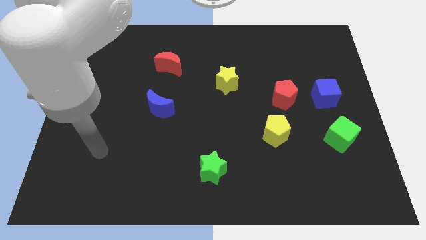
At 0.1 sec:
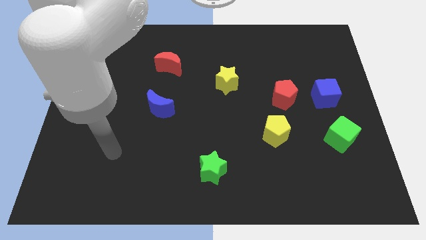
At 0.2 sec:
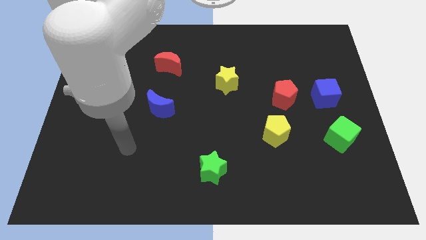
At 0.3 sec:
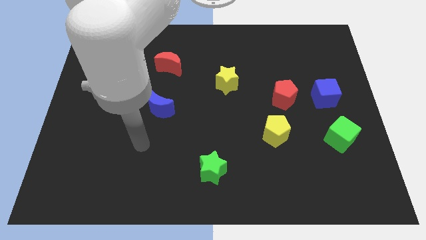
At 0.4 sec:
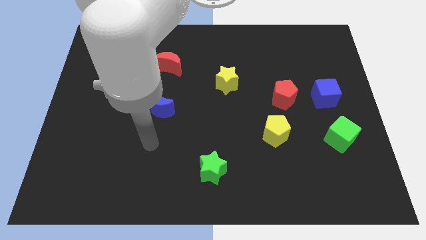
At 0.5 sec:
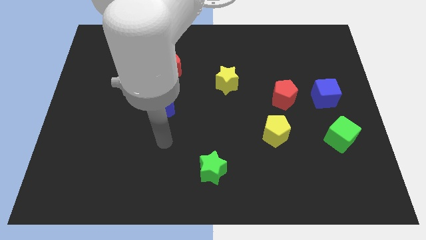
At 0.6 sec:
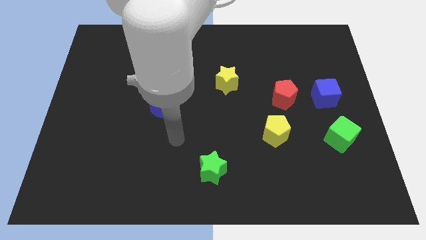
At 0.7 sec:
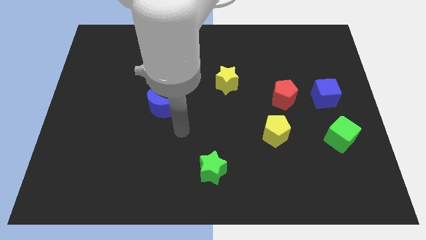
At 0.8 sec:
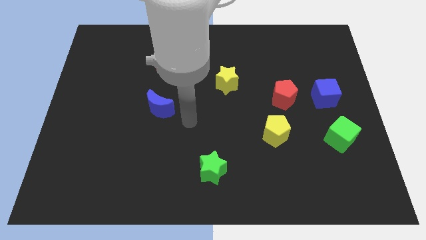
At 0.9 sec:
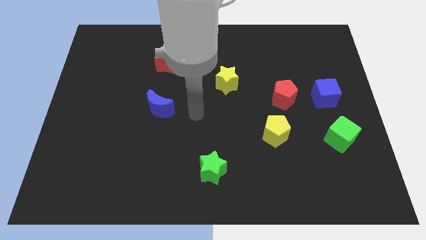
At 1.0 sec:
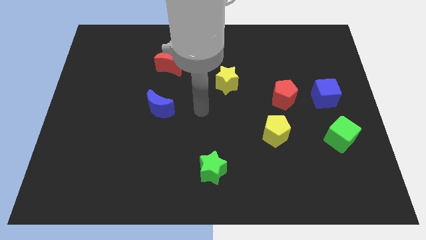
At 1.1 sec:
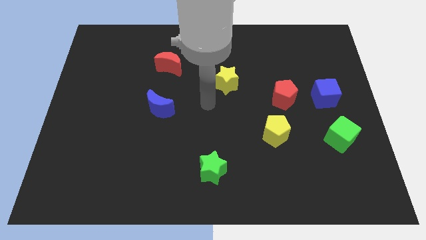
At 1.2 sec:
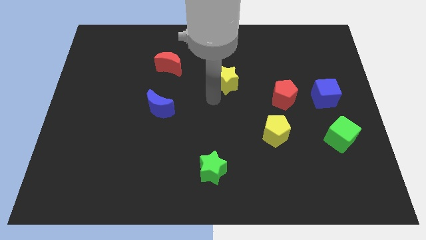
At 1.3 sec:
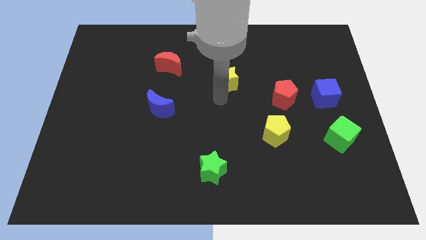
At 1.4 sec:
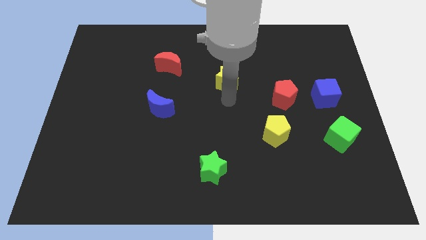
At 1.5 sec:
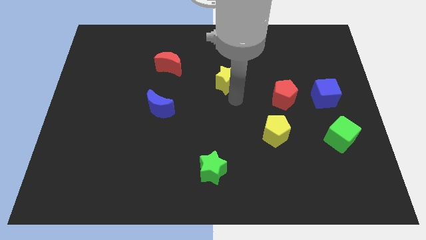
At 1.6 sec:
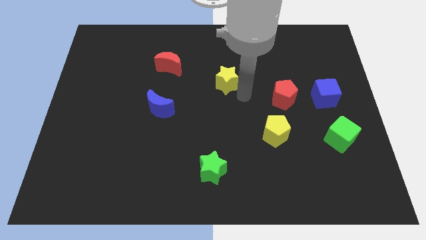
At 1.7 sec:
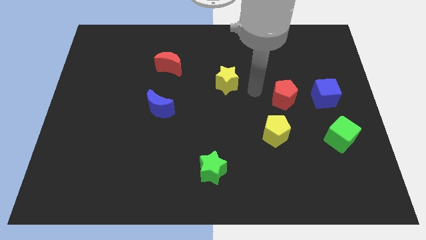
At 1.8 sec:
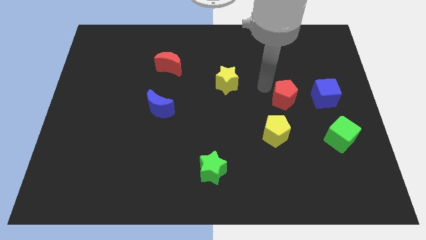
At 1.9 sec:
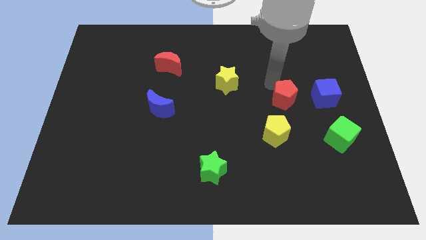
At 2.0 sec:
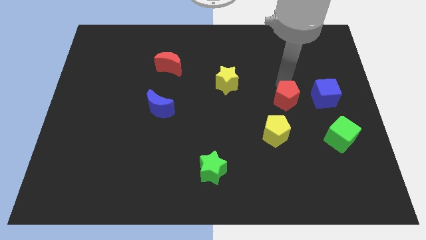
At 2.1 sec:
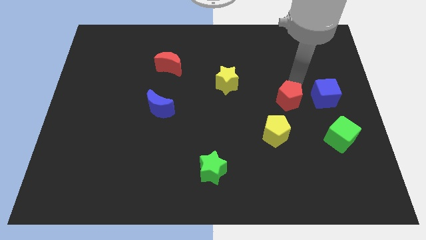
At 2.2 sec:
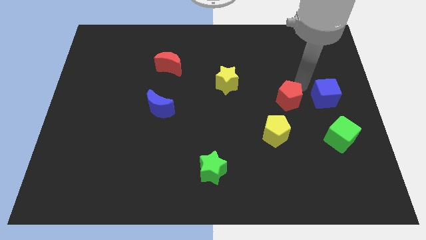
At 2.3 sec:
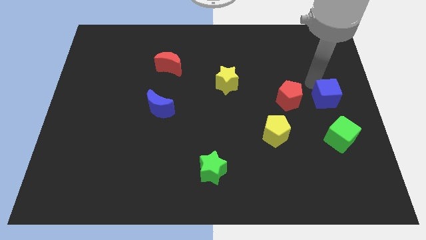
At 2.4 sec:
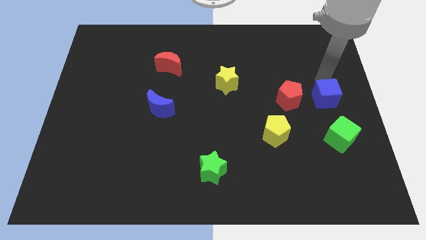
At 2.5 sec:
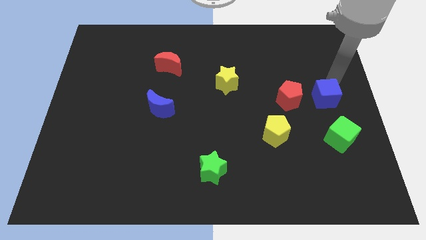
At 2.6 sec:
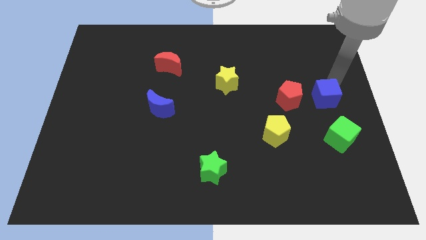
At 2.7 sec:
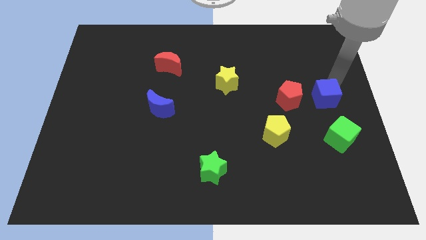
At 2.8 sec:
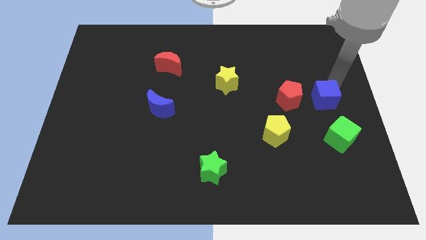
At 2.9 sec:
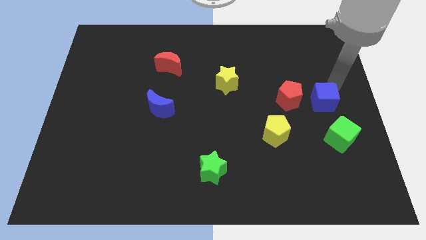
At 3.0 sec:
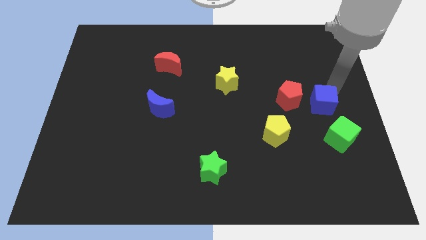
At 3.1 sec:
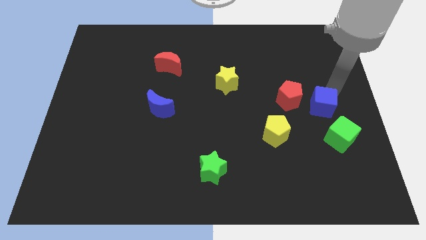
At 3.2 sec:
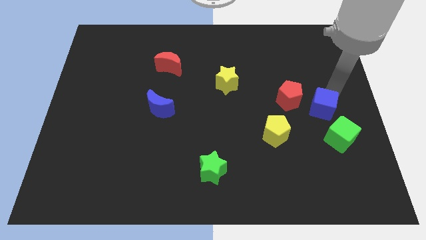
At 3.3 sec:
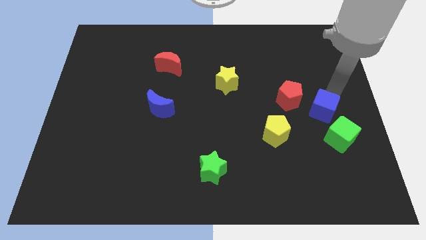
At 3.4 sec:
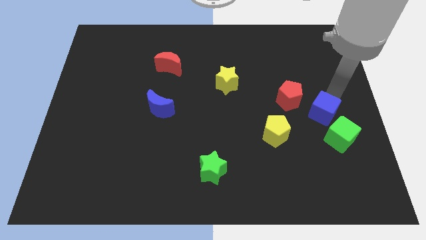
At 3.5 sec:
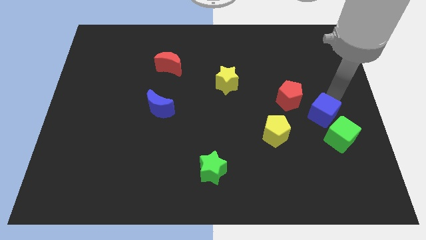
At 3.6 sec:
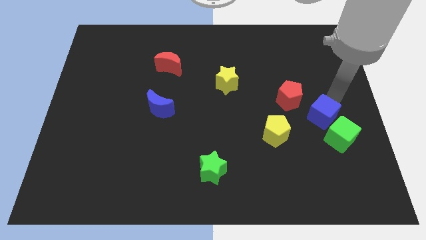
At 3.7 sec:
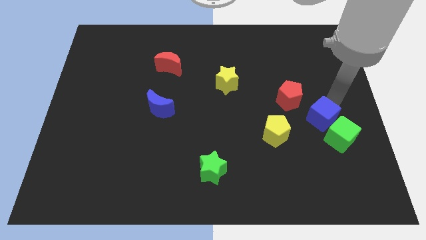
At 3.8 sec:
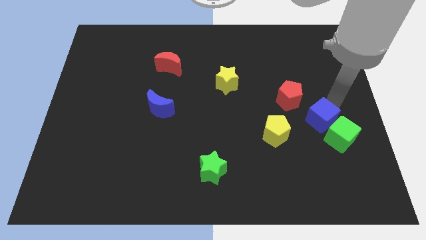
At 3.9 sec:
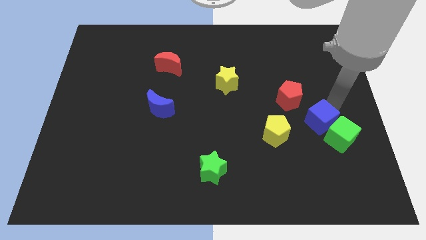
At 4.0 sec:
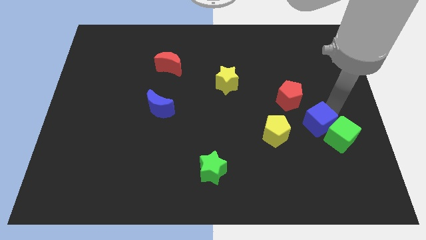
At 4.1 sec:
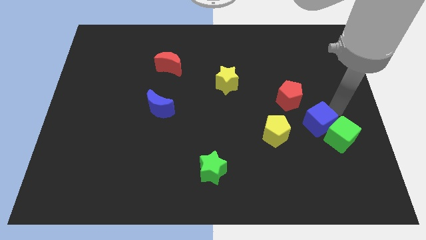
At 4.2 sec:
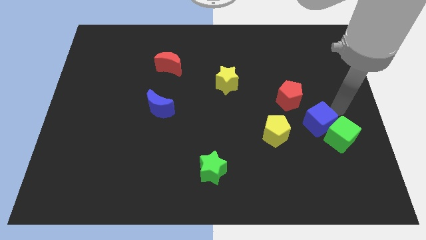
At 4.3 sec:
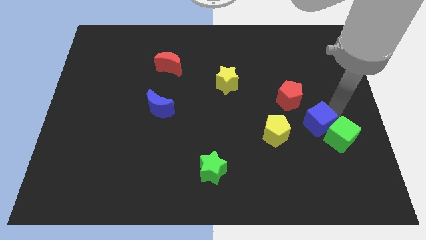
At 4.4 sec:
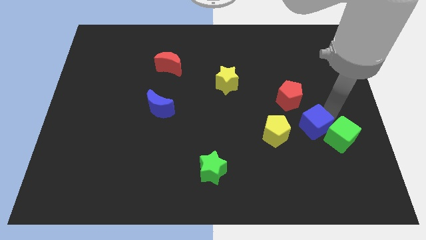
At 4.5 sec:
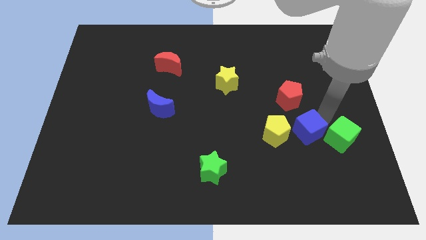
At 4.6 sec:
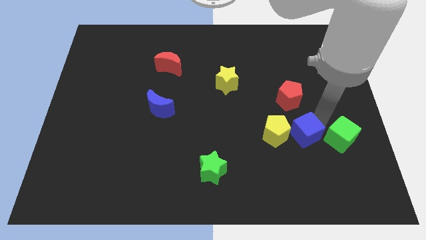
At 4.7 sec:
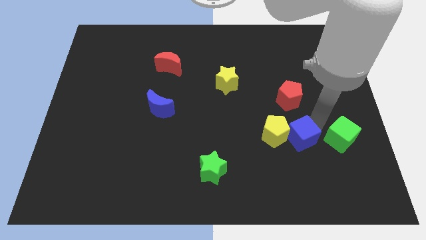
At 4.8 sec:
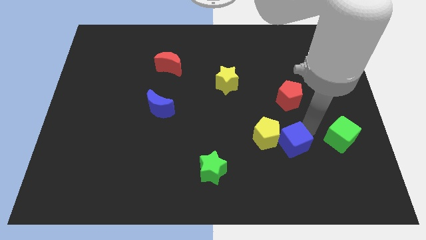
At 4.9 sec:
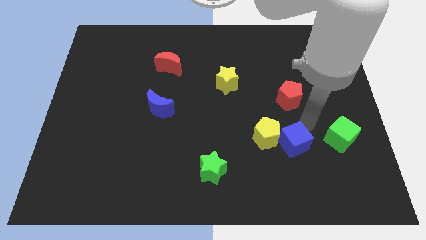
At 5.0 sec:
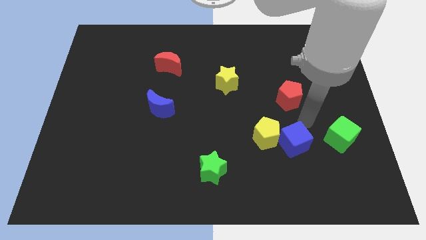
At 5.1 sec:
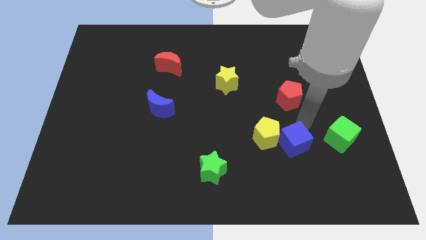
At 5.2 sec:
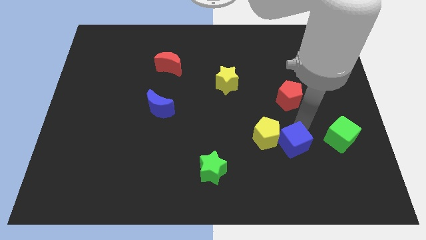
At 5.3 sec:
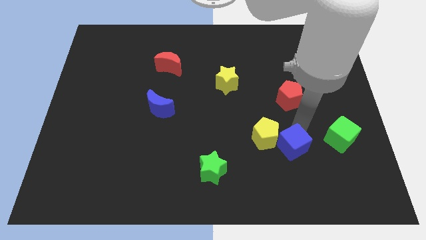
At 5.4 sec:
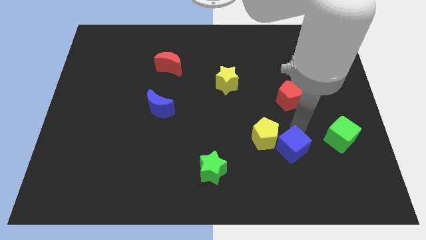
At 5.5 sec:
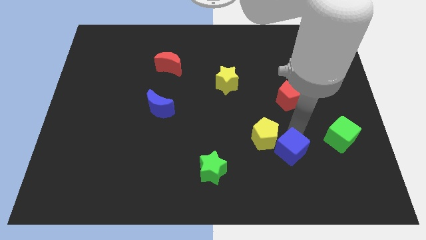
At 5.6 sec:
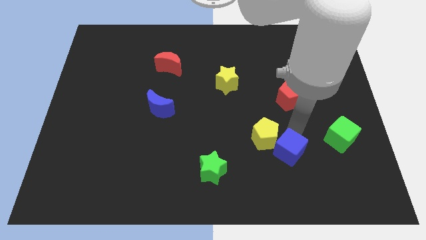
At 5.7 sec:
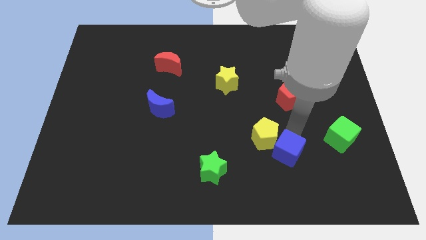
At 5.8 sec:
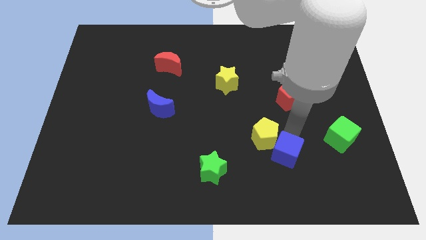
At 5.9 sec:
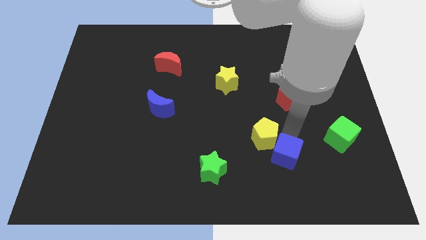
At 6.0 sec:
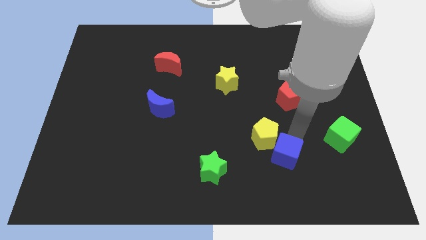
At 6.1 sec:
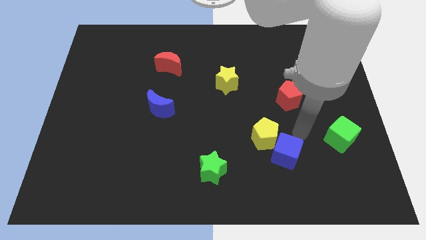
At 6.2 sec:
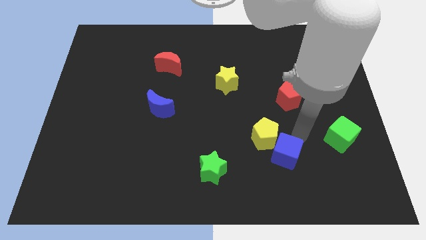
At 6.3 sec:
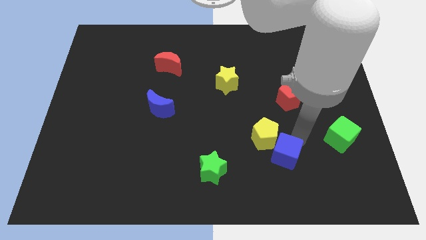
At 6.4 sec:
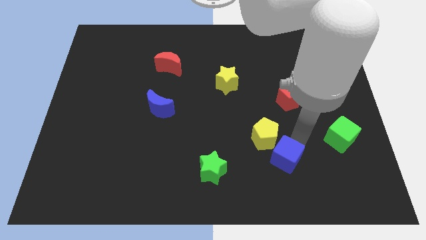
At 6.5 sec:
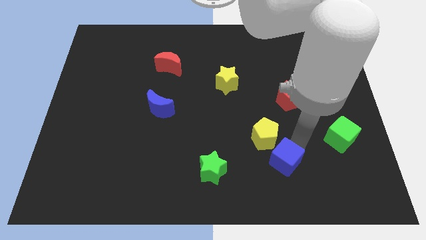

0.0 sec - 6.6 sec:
push the blue cube diagonally down and left

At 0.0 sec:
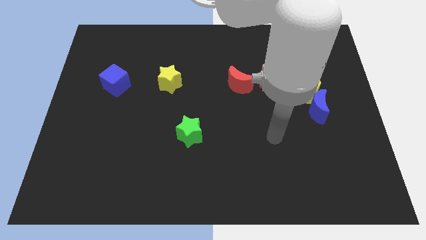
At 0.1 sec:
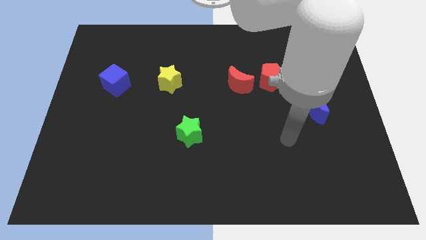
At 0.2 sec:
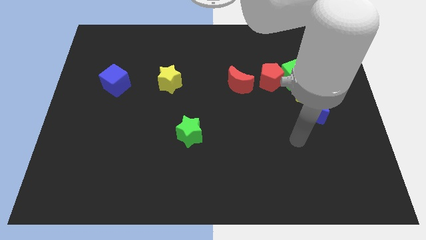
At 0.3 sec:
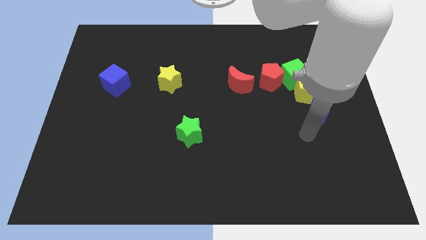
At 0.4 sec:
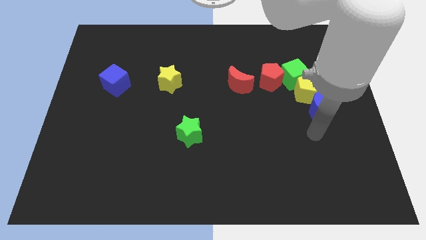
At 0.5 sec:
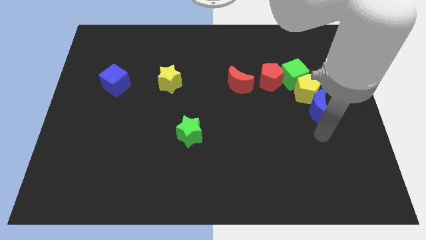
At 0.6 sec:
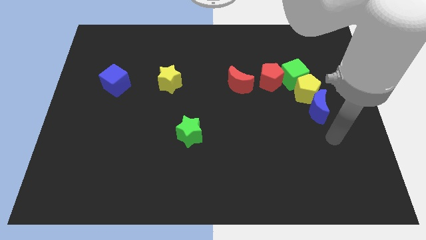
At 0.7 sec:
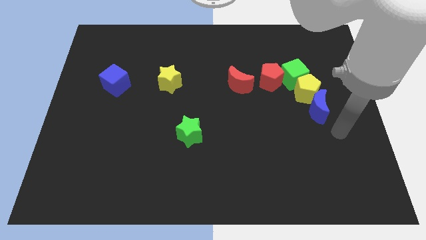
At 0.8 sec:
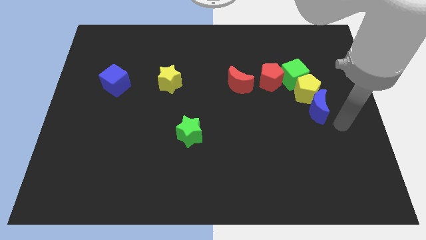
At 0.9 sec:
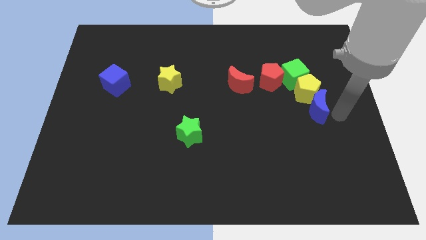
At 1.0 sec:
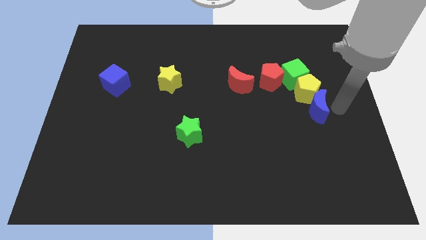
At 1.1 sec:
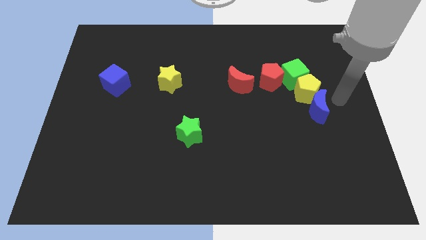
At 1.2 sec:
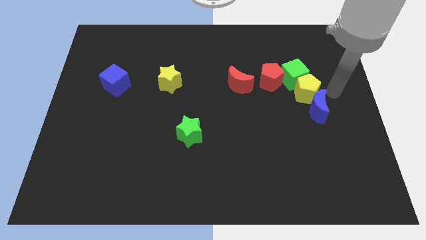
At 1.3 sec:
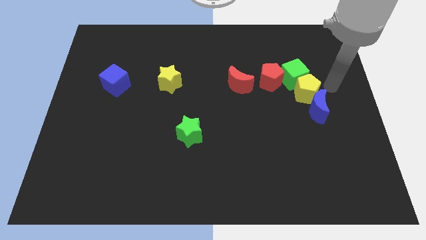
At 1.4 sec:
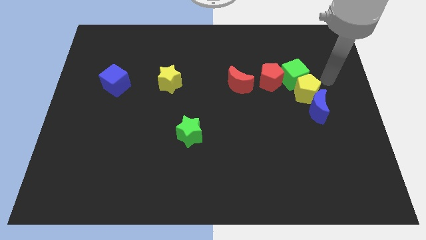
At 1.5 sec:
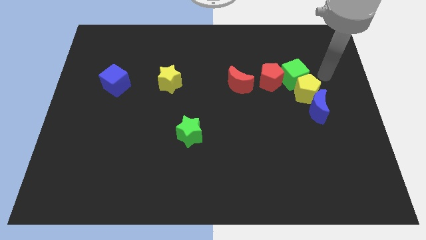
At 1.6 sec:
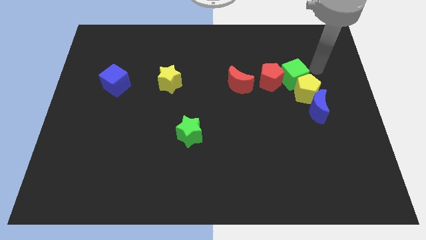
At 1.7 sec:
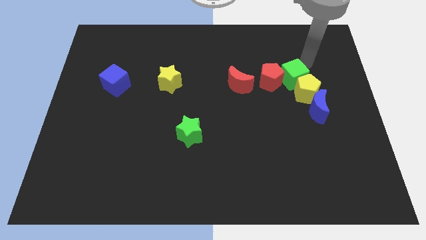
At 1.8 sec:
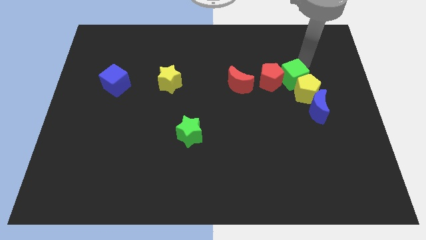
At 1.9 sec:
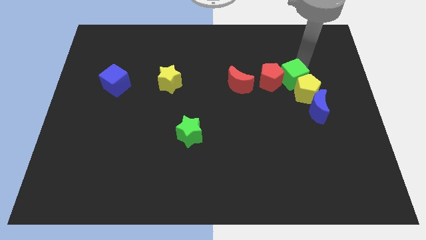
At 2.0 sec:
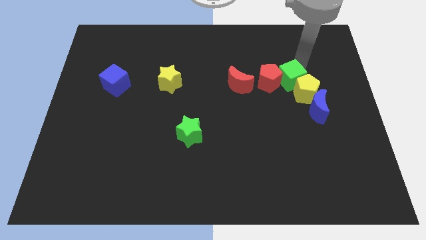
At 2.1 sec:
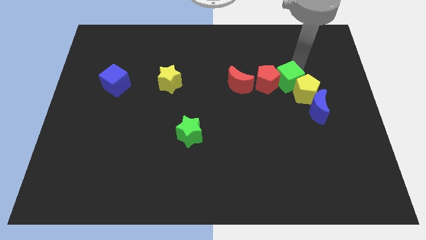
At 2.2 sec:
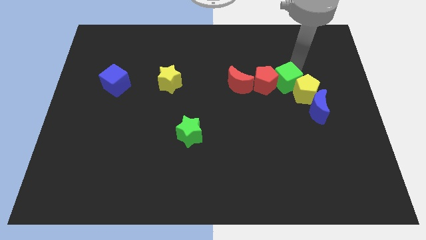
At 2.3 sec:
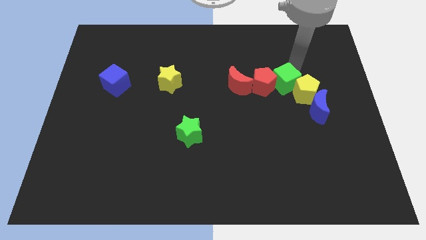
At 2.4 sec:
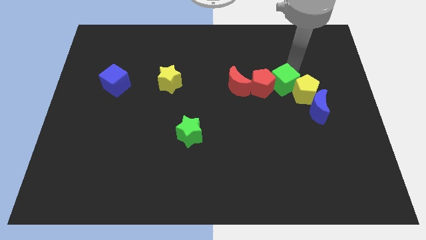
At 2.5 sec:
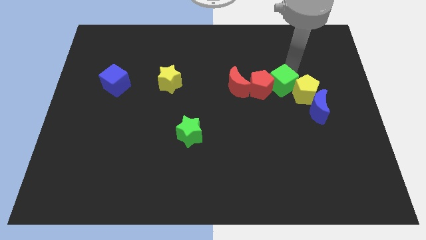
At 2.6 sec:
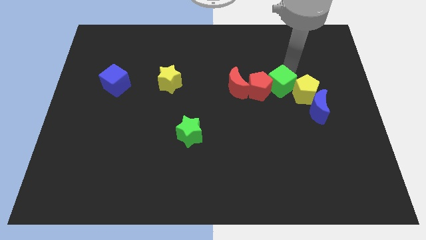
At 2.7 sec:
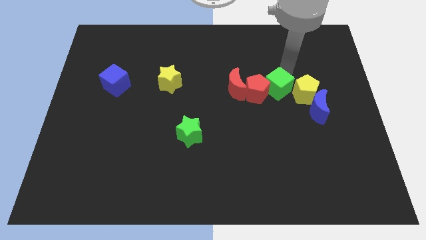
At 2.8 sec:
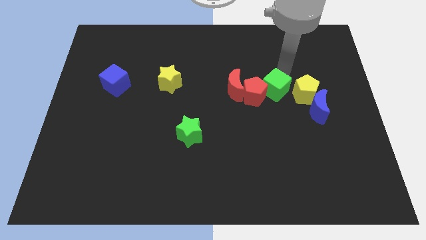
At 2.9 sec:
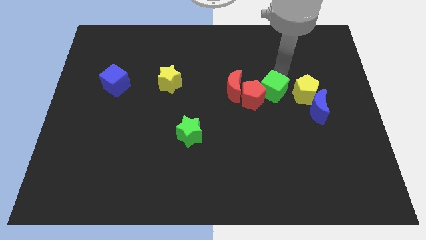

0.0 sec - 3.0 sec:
slide the green cube down and then left a bit
